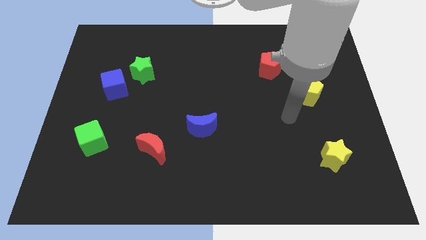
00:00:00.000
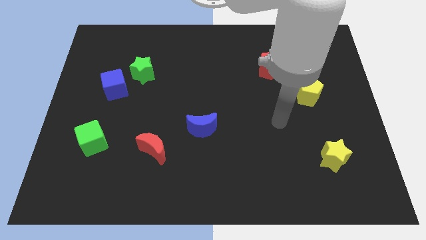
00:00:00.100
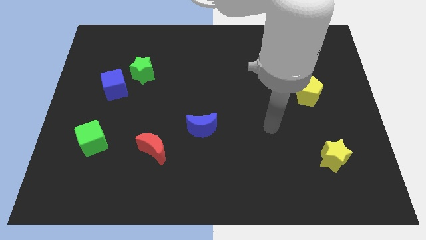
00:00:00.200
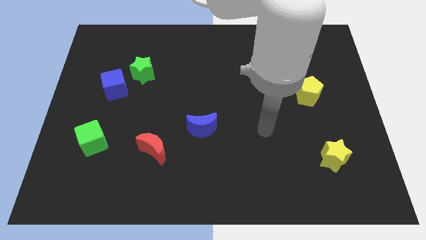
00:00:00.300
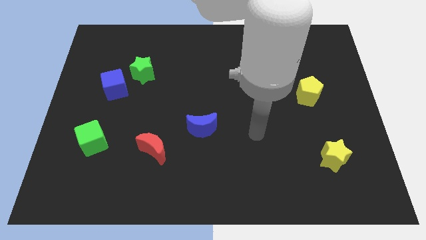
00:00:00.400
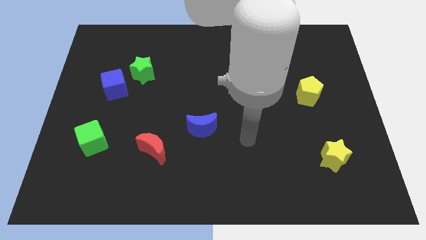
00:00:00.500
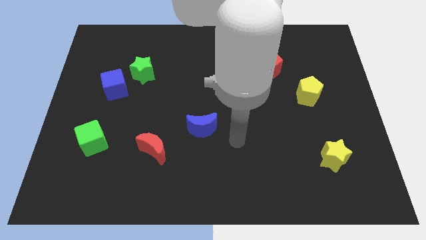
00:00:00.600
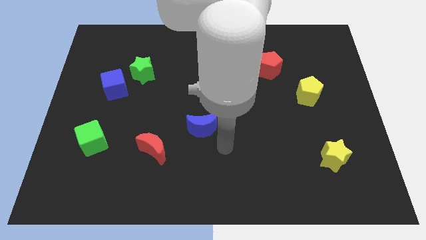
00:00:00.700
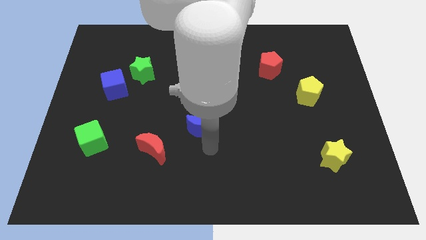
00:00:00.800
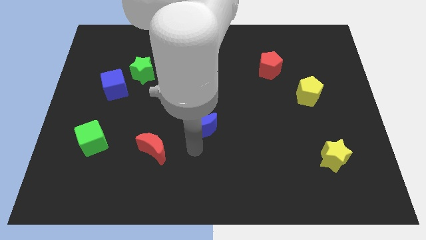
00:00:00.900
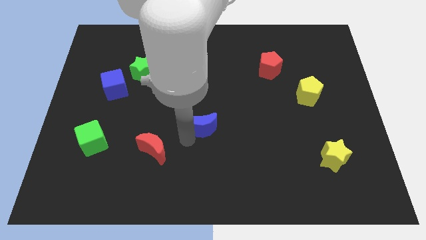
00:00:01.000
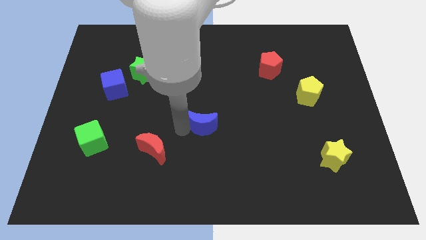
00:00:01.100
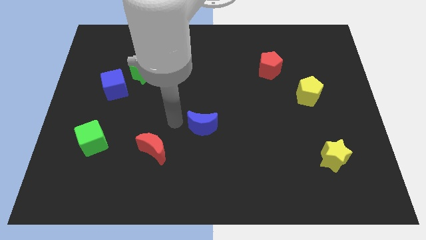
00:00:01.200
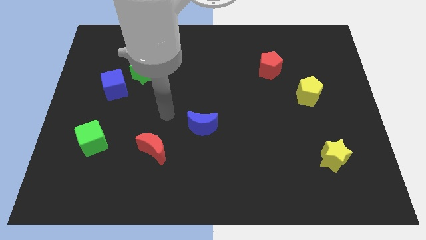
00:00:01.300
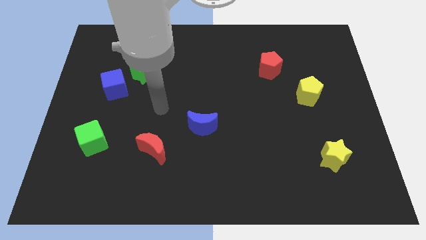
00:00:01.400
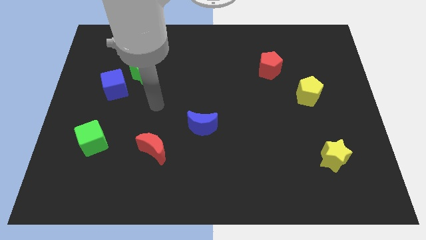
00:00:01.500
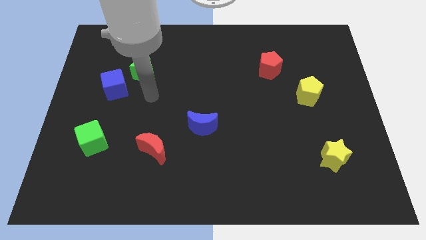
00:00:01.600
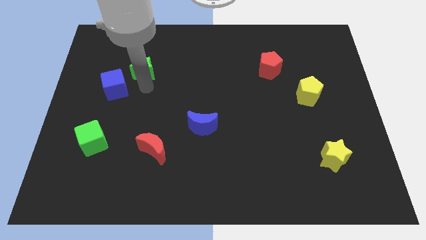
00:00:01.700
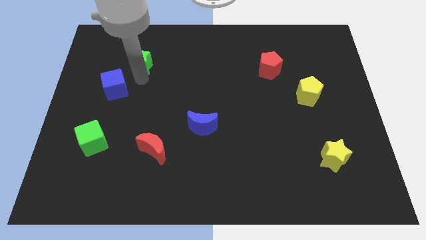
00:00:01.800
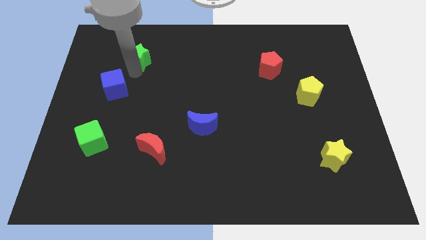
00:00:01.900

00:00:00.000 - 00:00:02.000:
pull the blue cube apart from the green star

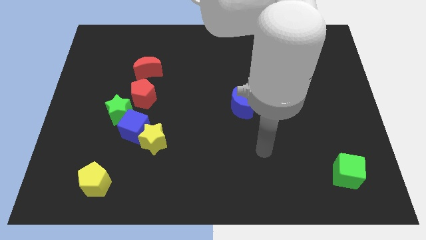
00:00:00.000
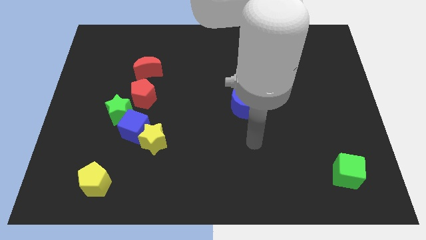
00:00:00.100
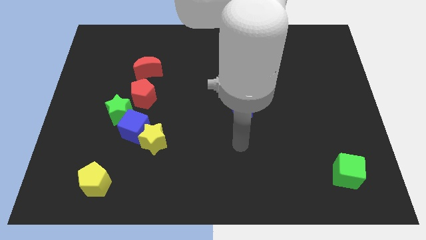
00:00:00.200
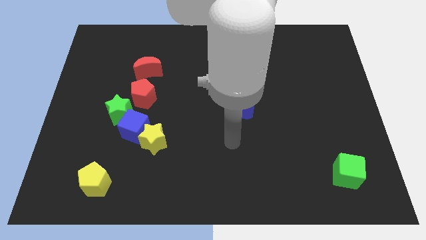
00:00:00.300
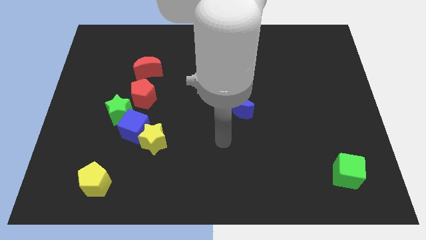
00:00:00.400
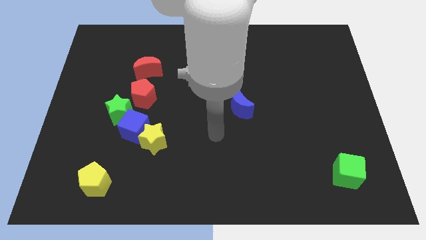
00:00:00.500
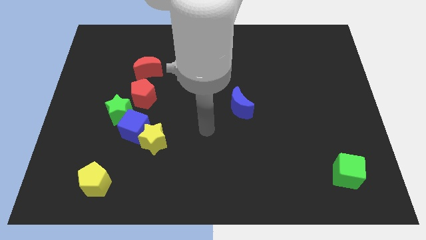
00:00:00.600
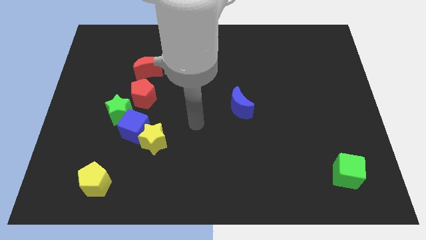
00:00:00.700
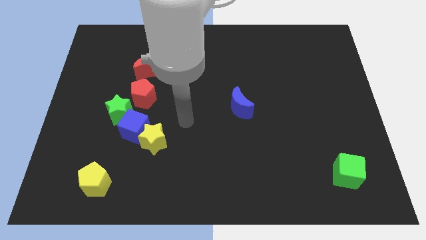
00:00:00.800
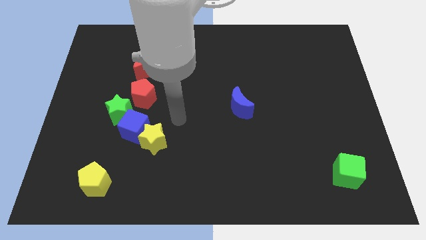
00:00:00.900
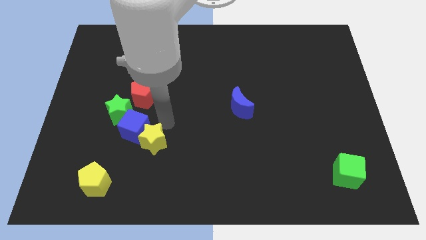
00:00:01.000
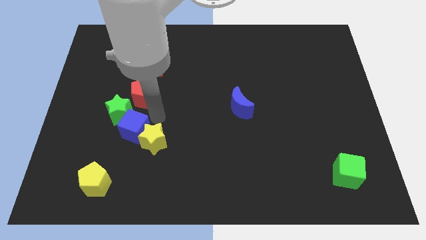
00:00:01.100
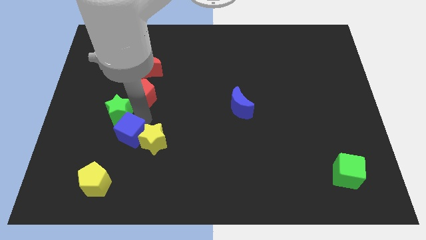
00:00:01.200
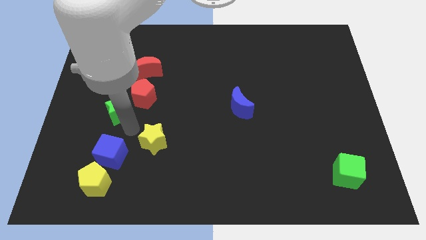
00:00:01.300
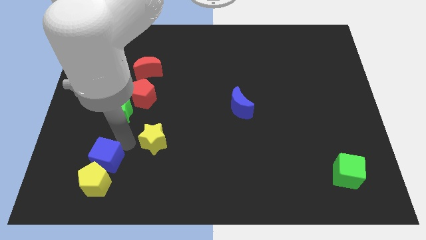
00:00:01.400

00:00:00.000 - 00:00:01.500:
separate the yellow star from the blue cube

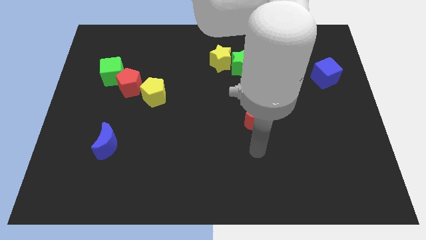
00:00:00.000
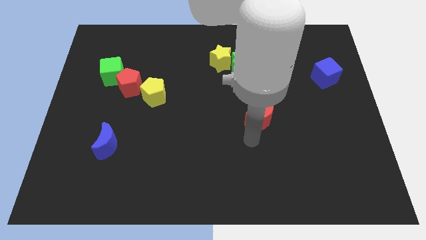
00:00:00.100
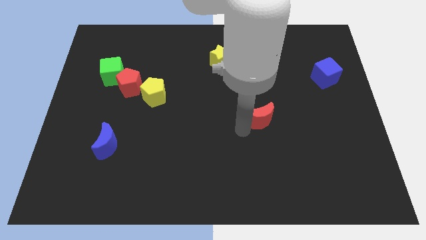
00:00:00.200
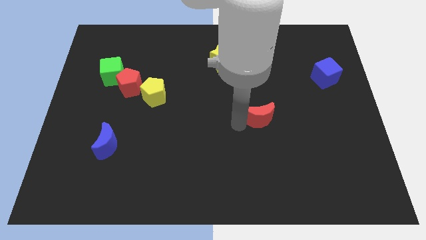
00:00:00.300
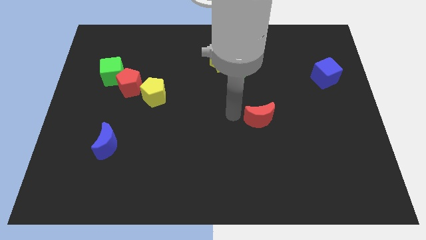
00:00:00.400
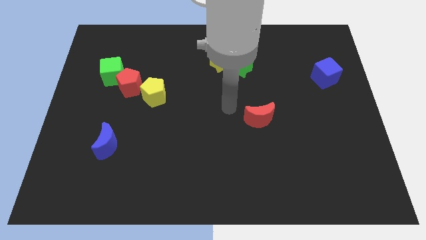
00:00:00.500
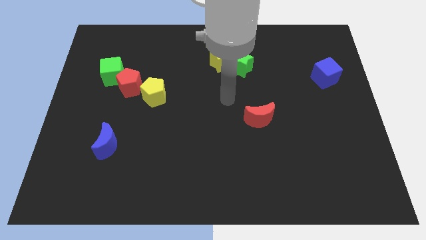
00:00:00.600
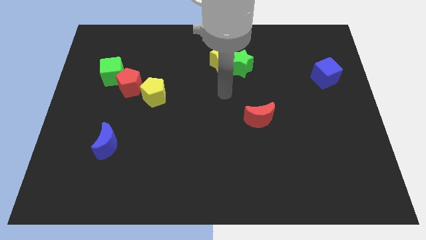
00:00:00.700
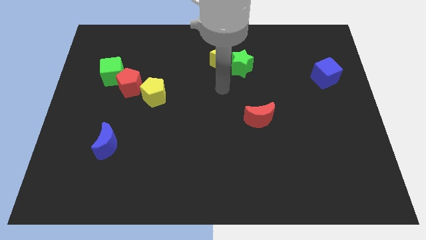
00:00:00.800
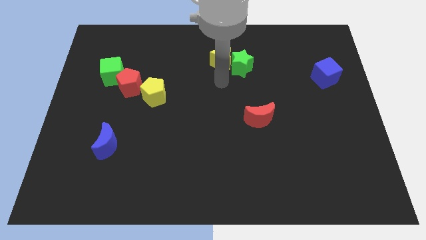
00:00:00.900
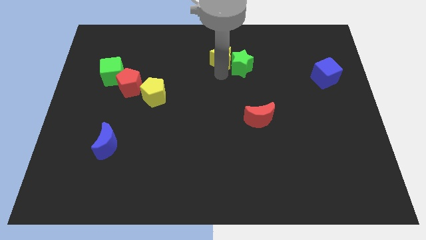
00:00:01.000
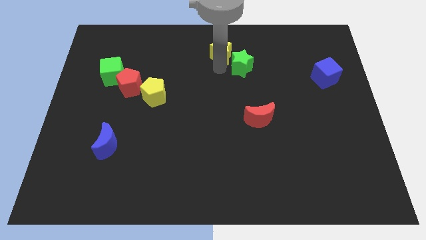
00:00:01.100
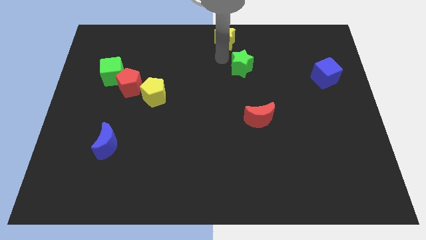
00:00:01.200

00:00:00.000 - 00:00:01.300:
pull the green star apart from the yellow star

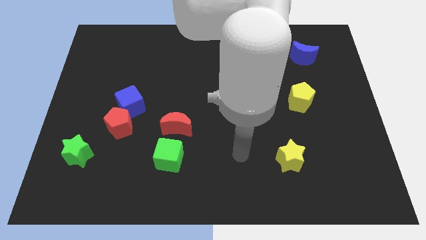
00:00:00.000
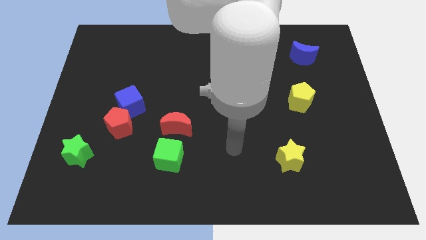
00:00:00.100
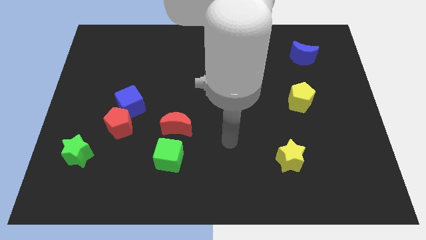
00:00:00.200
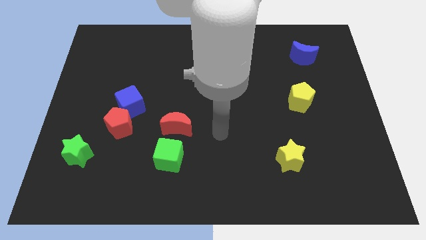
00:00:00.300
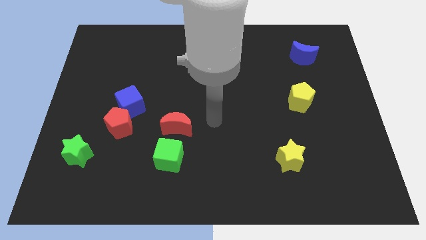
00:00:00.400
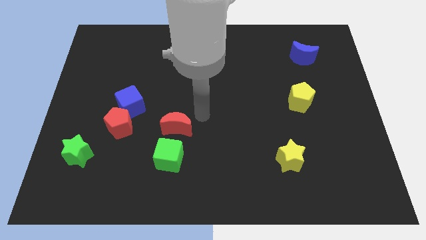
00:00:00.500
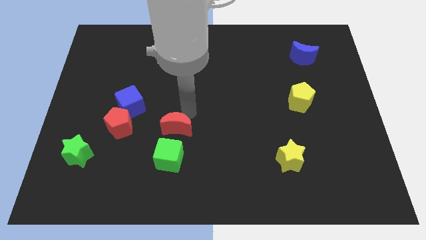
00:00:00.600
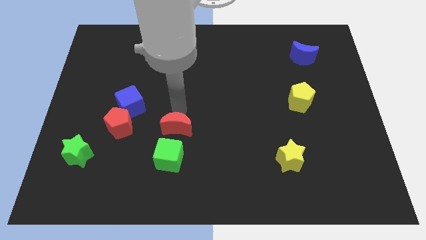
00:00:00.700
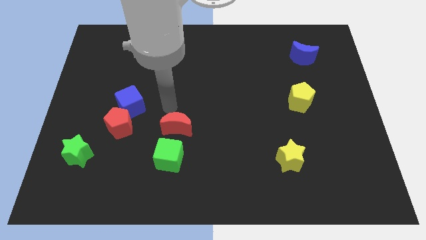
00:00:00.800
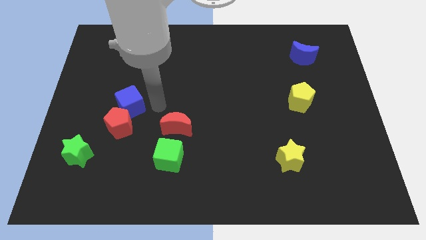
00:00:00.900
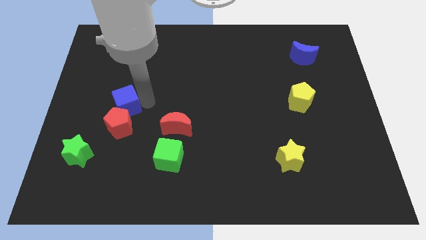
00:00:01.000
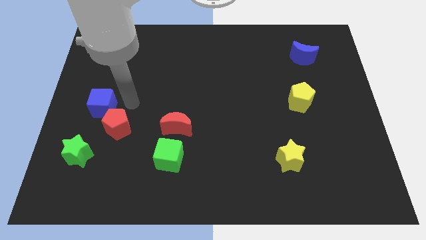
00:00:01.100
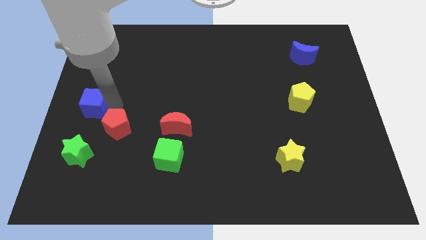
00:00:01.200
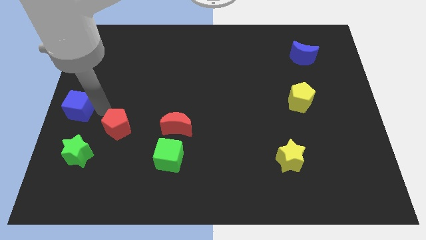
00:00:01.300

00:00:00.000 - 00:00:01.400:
move the red pentagon away from the blue cube

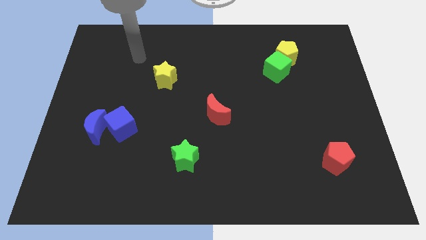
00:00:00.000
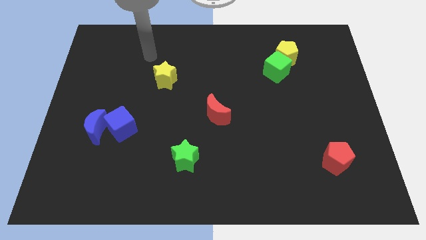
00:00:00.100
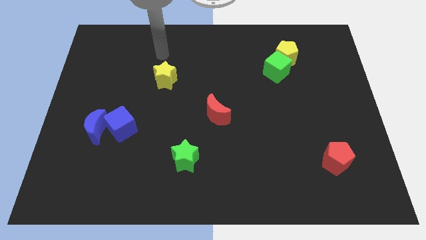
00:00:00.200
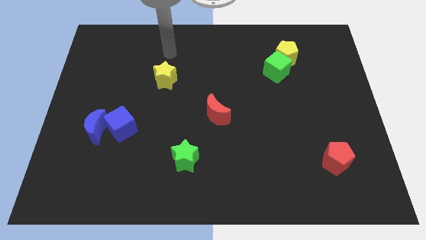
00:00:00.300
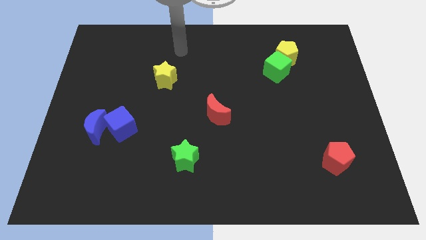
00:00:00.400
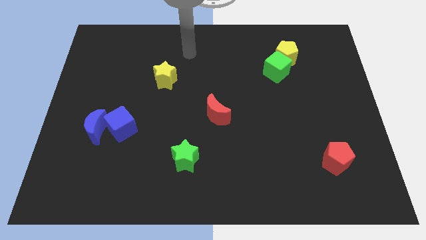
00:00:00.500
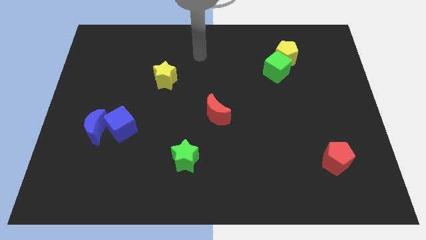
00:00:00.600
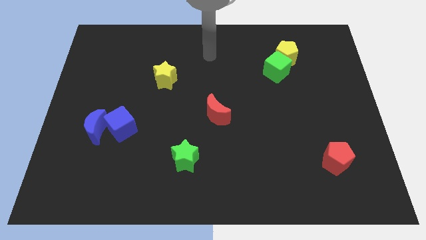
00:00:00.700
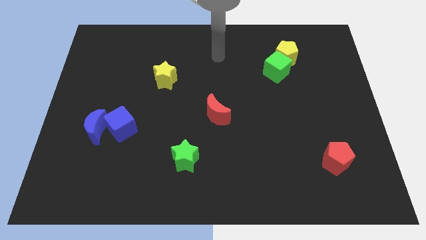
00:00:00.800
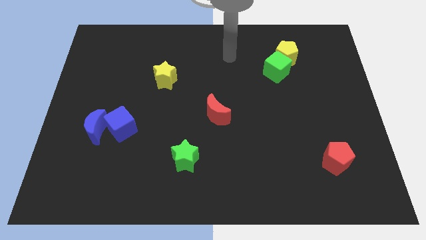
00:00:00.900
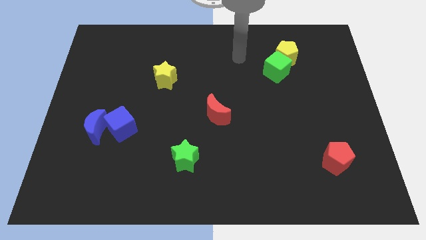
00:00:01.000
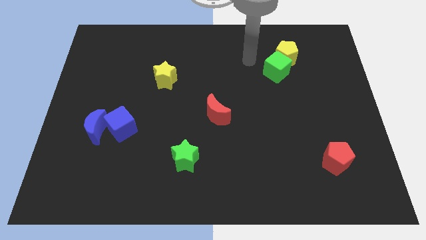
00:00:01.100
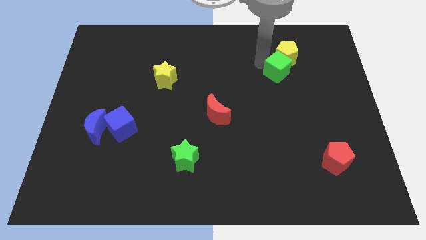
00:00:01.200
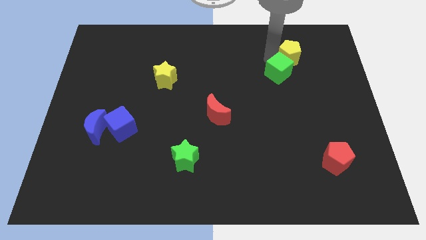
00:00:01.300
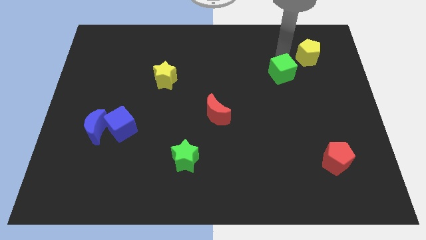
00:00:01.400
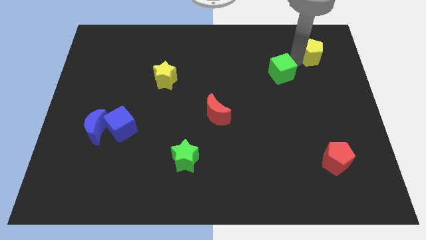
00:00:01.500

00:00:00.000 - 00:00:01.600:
separate the green cube from the yellow pentagon

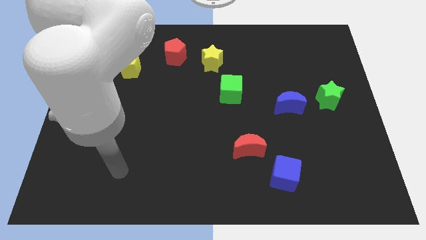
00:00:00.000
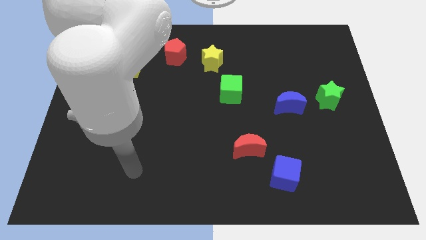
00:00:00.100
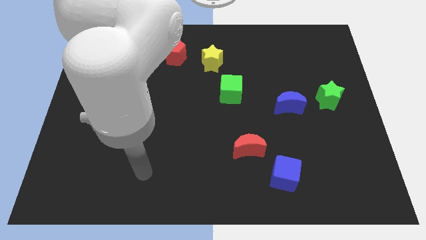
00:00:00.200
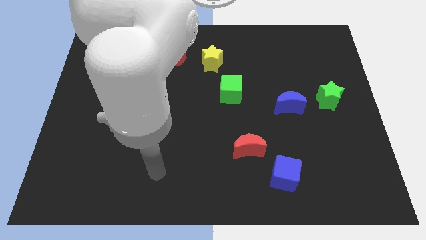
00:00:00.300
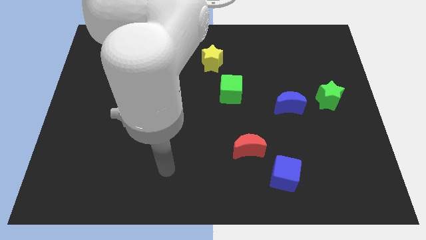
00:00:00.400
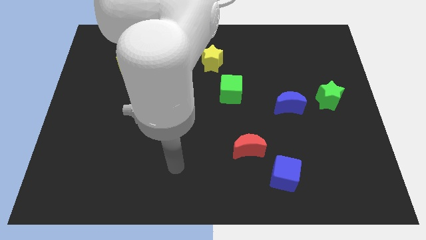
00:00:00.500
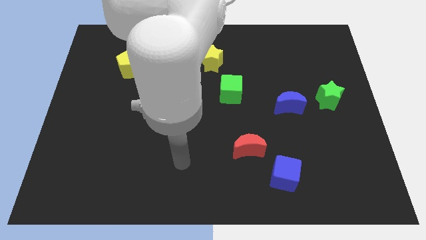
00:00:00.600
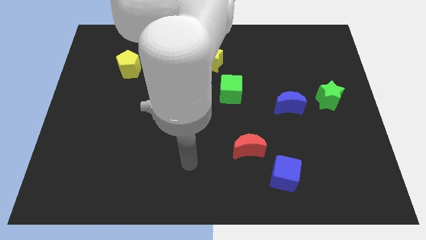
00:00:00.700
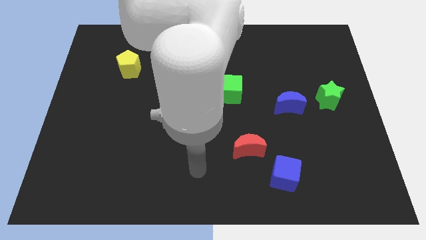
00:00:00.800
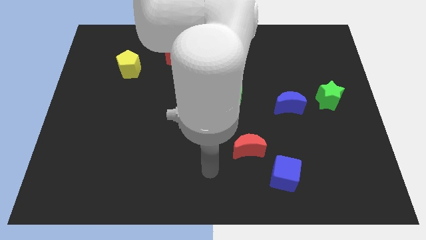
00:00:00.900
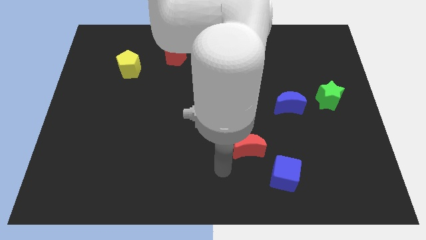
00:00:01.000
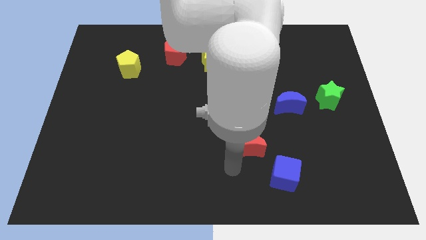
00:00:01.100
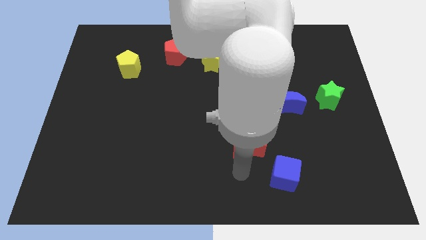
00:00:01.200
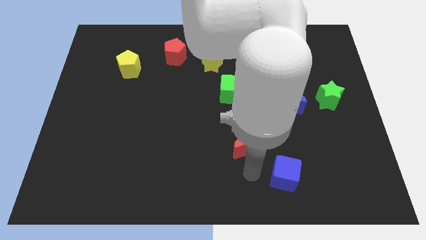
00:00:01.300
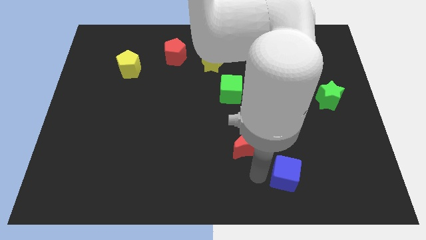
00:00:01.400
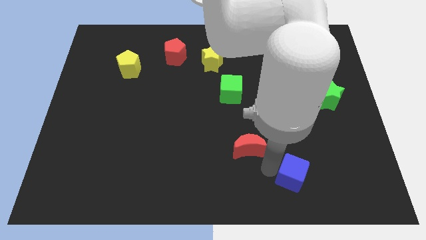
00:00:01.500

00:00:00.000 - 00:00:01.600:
separate the red moon from the blue cube
